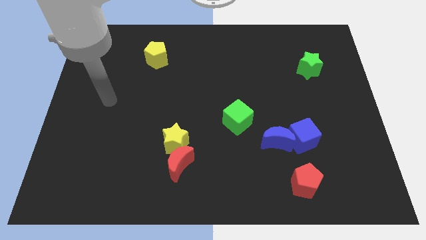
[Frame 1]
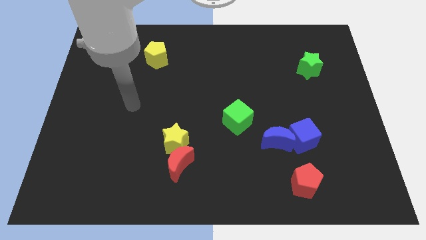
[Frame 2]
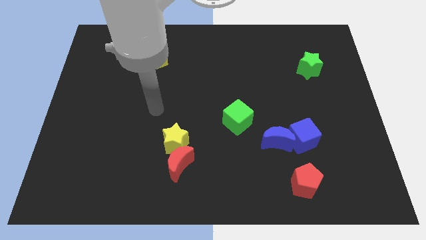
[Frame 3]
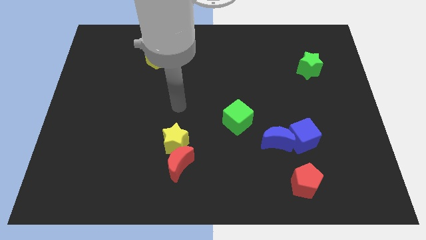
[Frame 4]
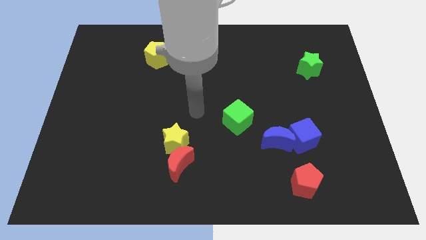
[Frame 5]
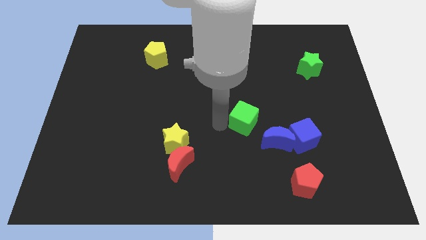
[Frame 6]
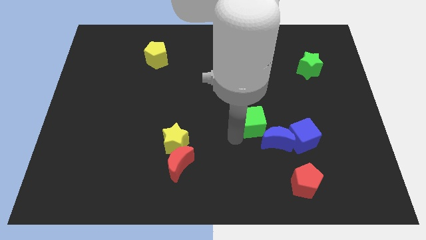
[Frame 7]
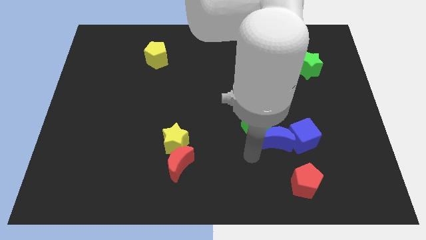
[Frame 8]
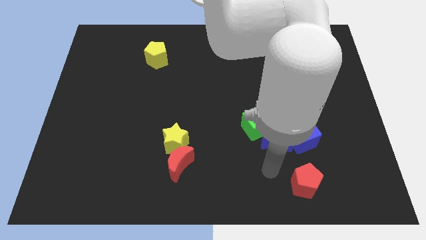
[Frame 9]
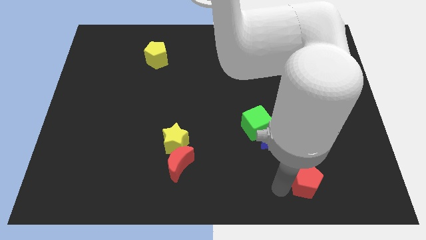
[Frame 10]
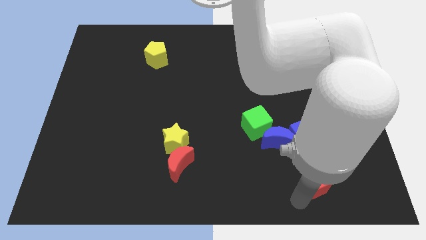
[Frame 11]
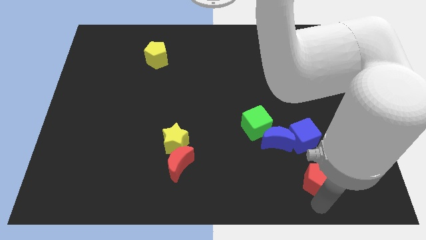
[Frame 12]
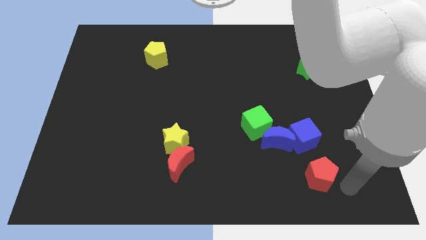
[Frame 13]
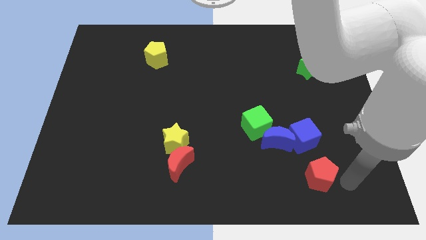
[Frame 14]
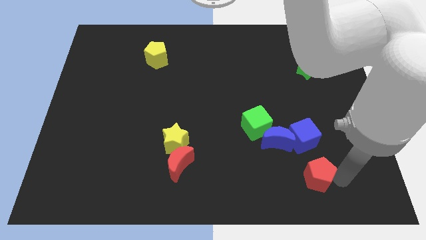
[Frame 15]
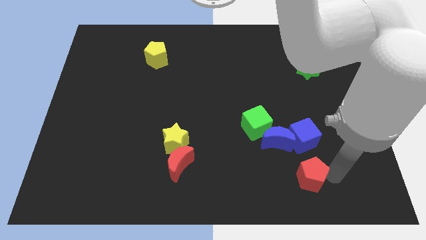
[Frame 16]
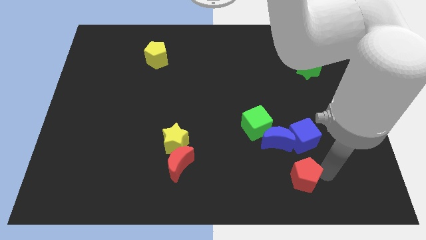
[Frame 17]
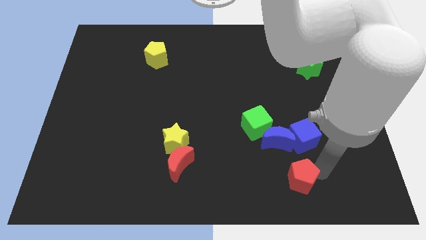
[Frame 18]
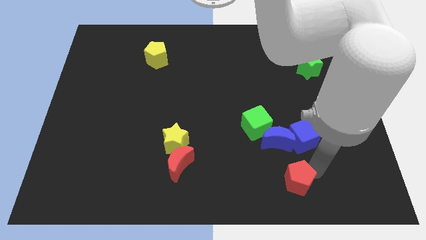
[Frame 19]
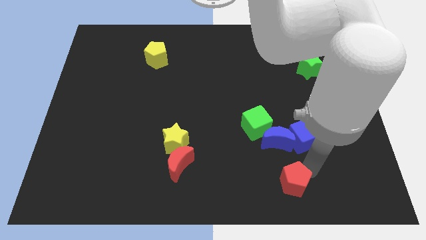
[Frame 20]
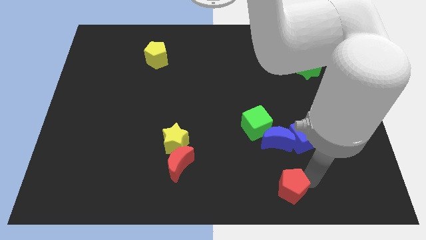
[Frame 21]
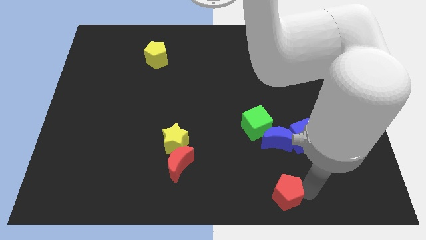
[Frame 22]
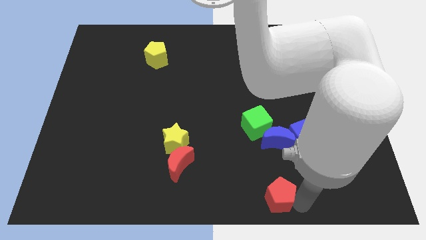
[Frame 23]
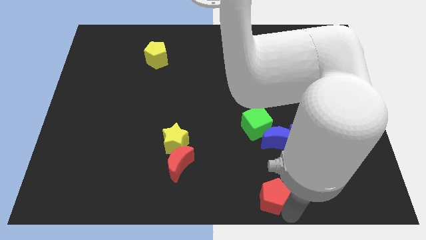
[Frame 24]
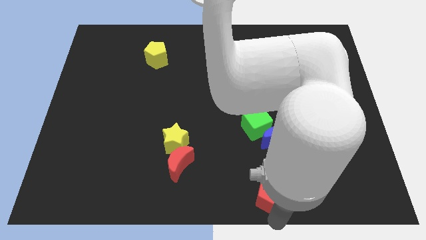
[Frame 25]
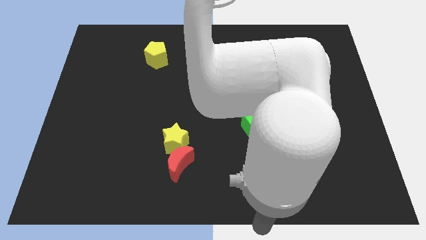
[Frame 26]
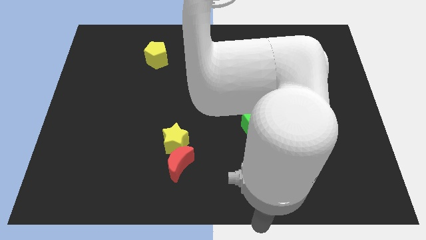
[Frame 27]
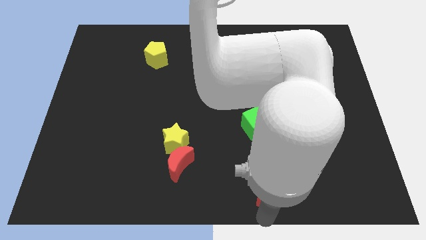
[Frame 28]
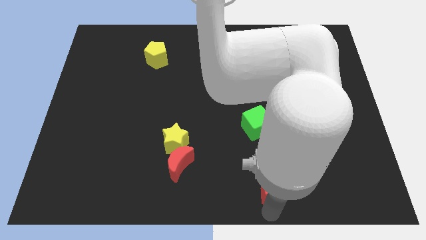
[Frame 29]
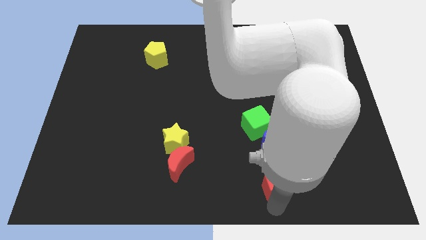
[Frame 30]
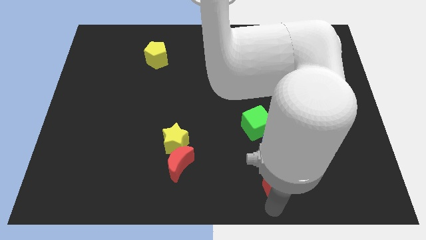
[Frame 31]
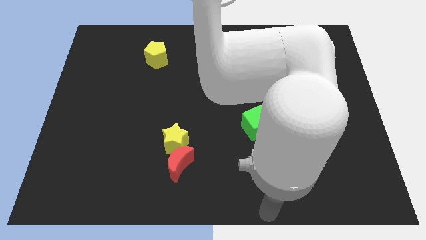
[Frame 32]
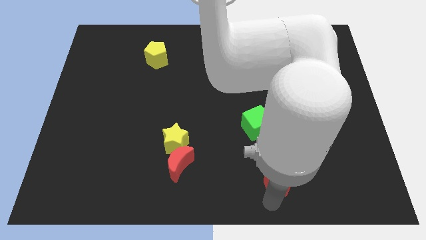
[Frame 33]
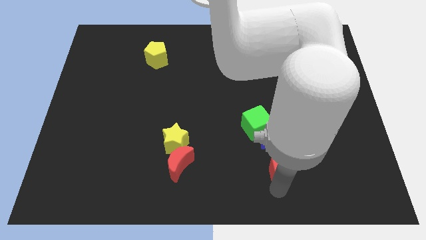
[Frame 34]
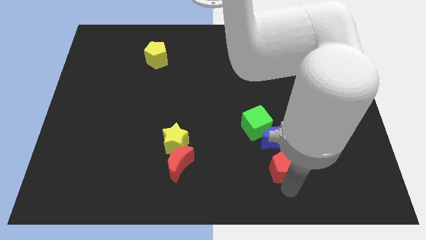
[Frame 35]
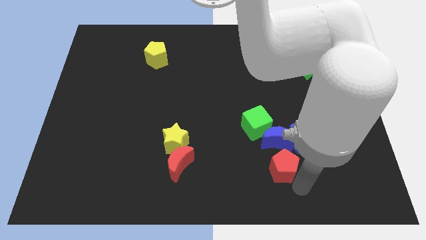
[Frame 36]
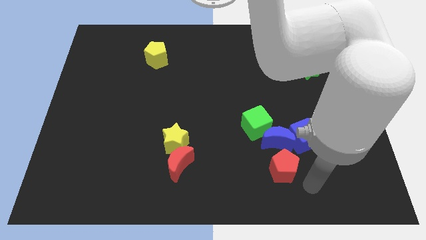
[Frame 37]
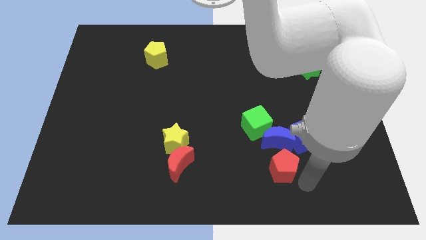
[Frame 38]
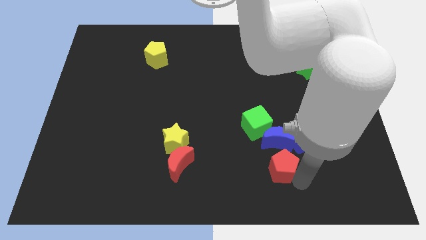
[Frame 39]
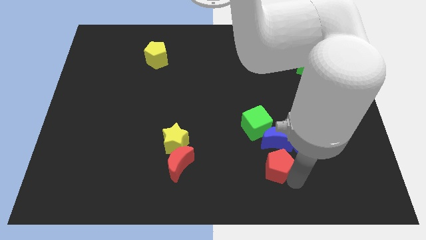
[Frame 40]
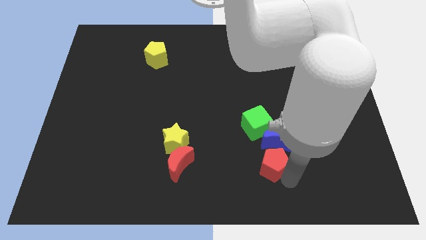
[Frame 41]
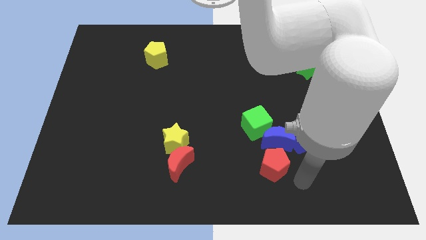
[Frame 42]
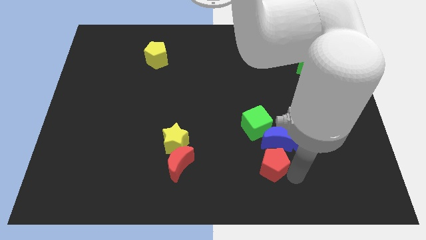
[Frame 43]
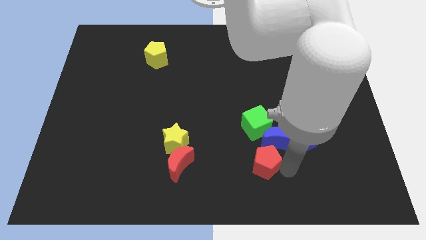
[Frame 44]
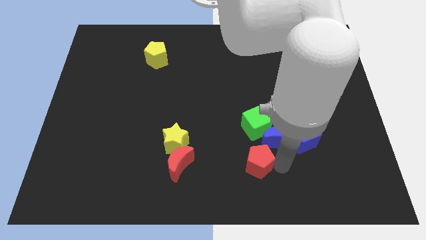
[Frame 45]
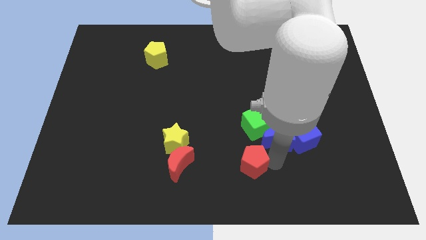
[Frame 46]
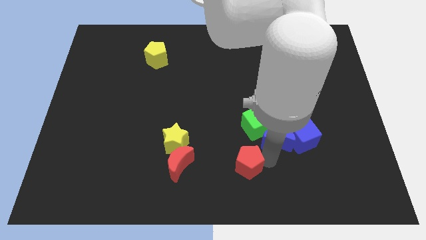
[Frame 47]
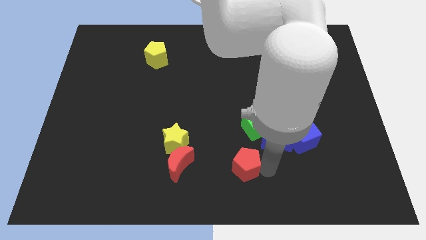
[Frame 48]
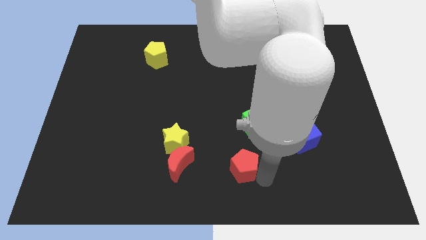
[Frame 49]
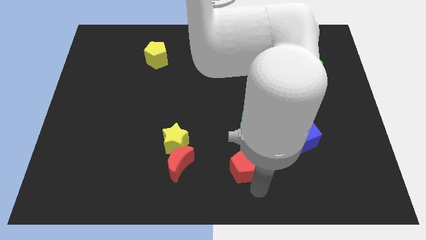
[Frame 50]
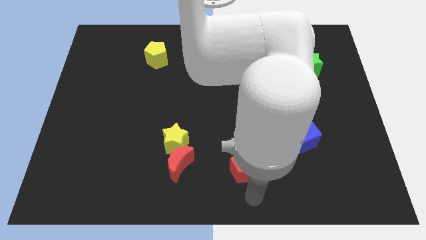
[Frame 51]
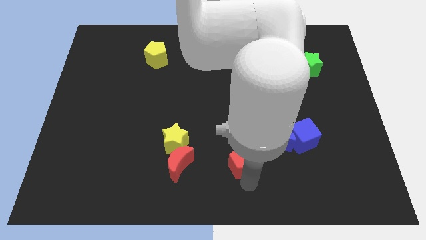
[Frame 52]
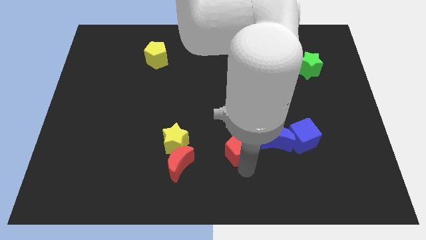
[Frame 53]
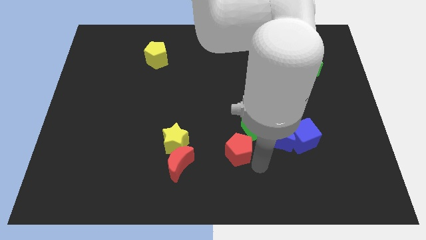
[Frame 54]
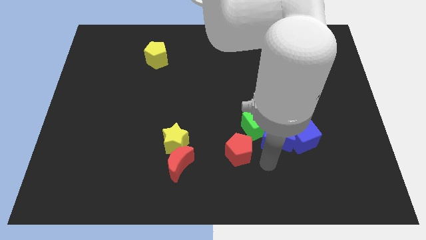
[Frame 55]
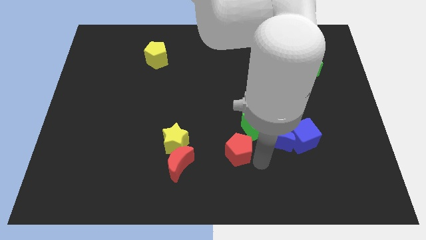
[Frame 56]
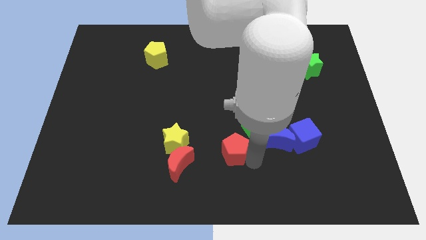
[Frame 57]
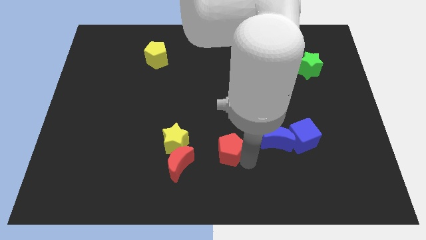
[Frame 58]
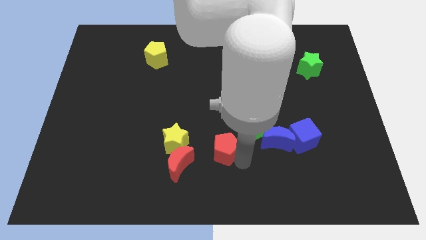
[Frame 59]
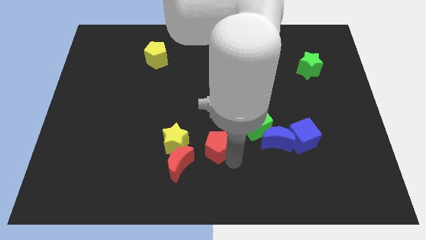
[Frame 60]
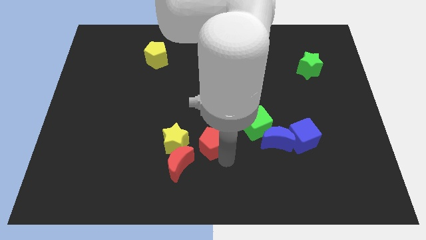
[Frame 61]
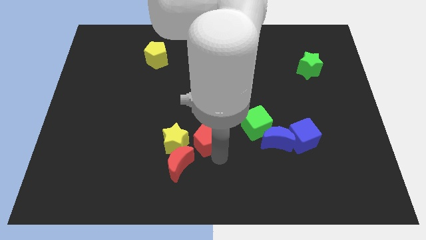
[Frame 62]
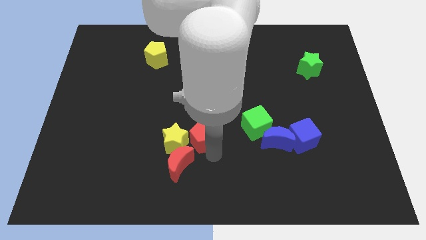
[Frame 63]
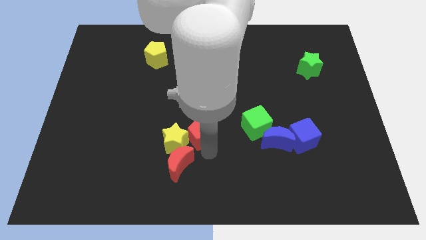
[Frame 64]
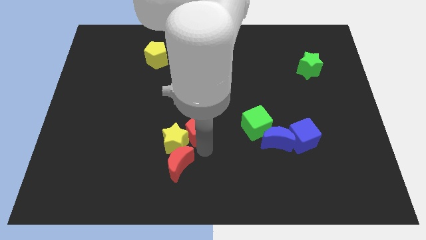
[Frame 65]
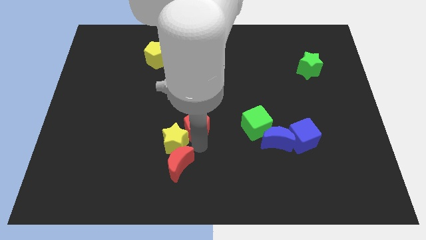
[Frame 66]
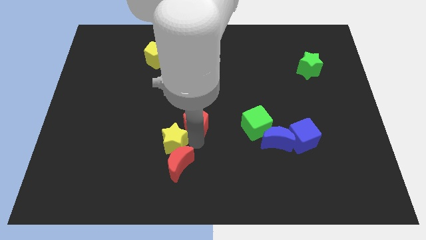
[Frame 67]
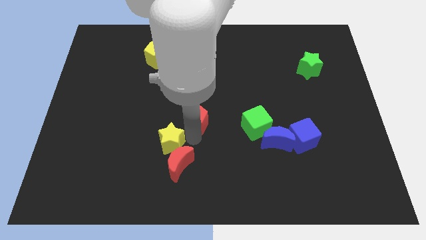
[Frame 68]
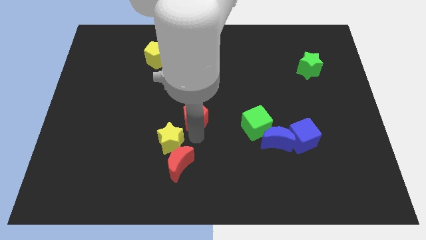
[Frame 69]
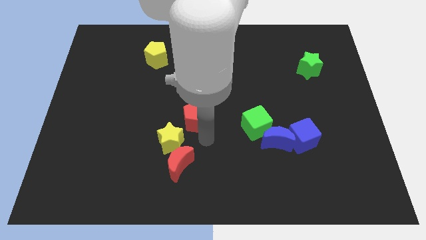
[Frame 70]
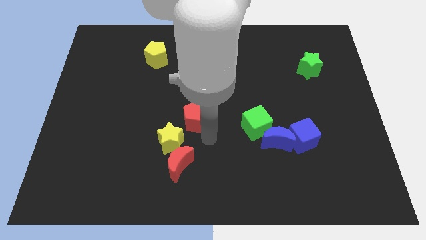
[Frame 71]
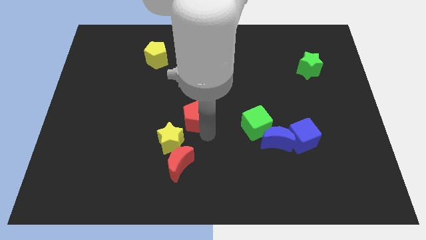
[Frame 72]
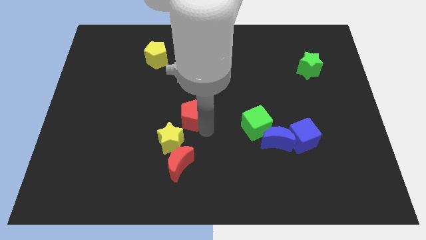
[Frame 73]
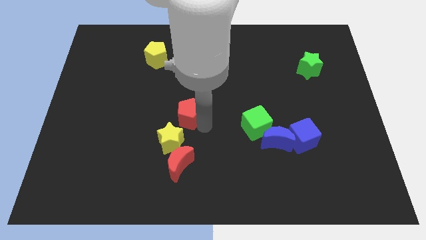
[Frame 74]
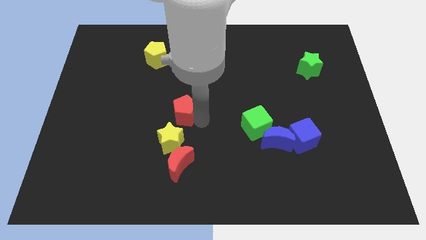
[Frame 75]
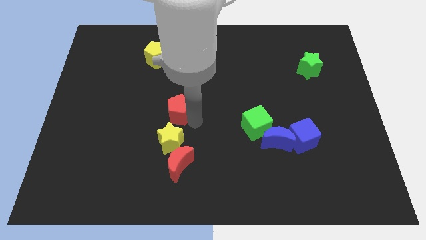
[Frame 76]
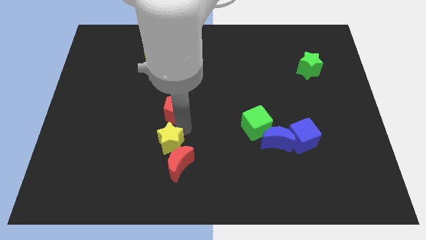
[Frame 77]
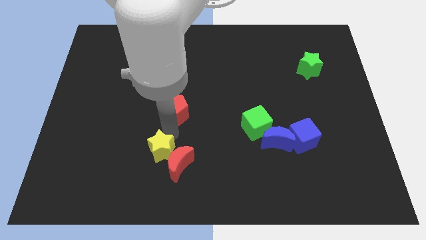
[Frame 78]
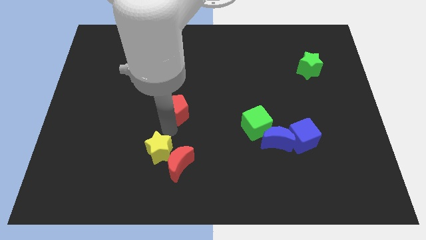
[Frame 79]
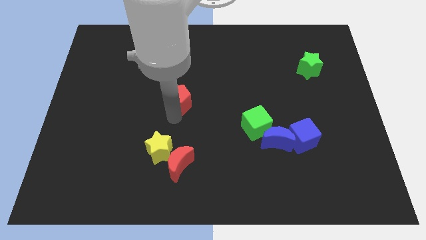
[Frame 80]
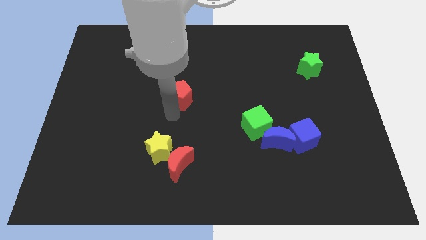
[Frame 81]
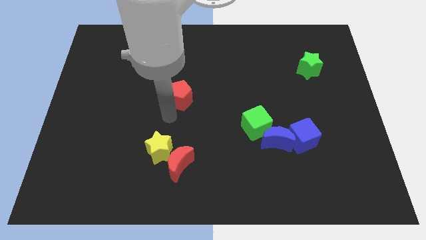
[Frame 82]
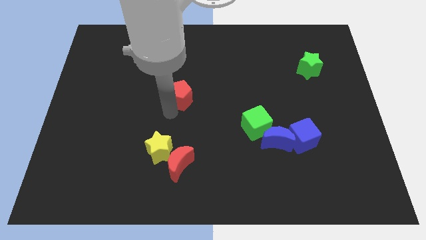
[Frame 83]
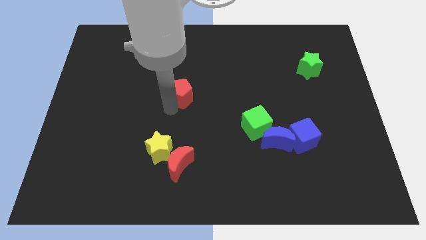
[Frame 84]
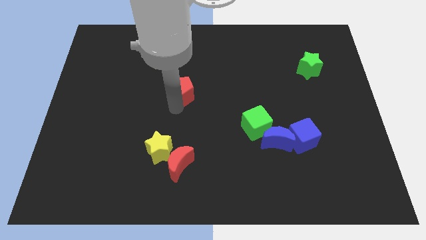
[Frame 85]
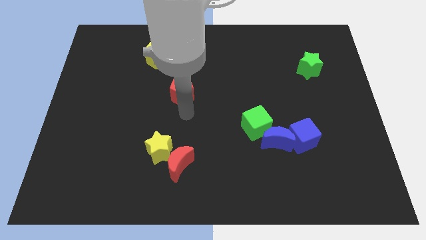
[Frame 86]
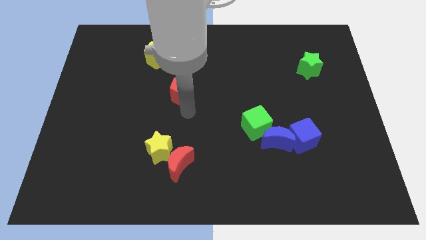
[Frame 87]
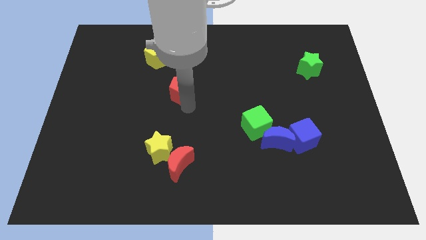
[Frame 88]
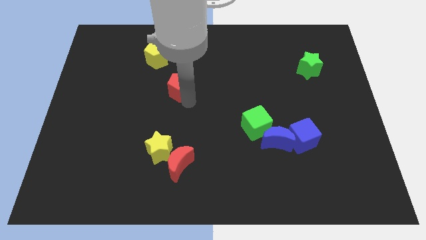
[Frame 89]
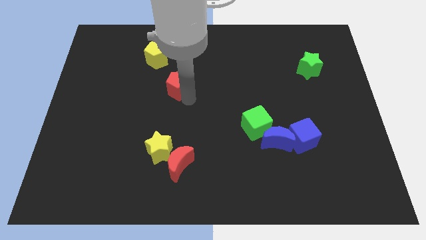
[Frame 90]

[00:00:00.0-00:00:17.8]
put the red pentagon to the bottom right side of the yellow pentagon
